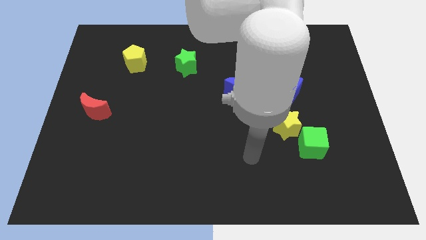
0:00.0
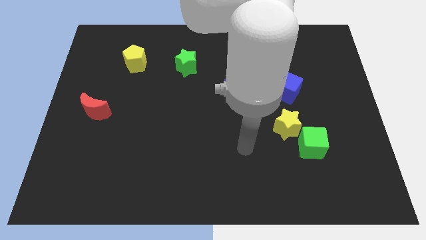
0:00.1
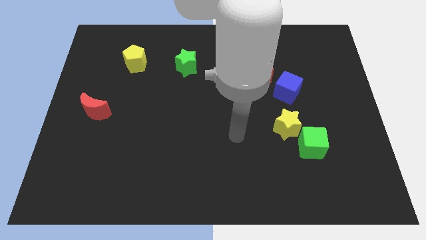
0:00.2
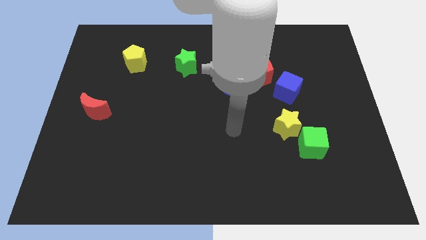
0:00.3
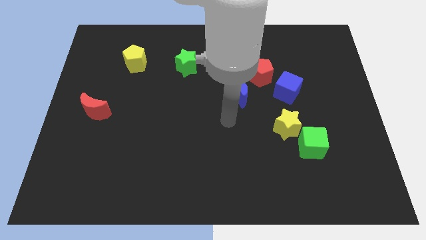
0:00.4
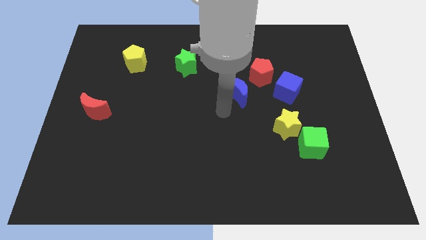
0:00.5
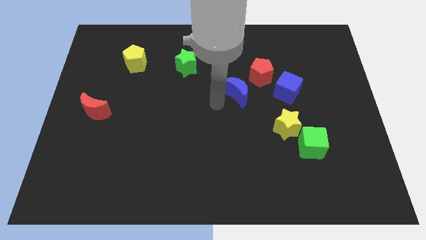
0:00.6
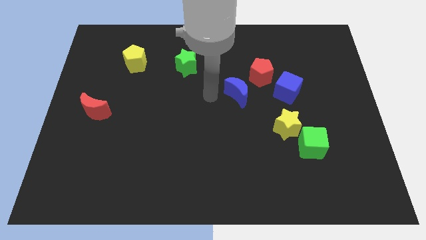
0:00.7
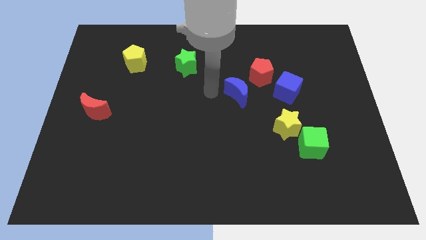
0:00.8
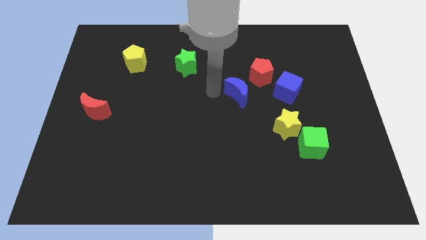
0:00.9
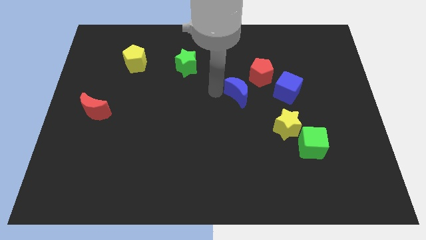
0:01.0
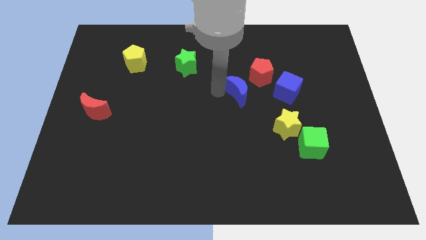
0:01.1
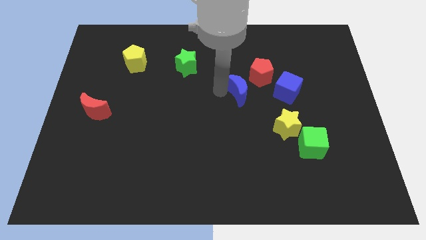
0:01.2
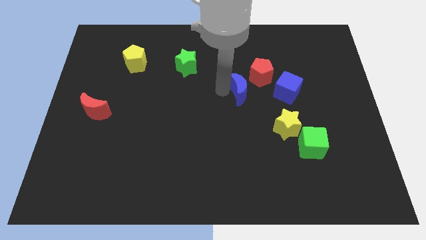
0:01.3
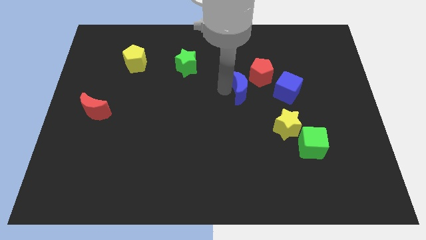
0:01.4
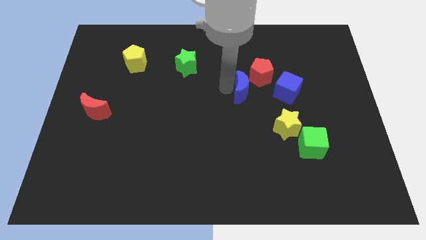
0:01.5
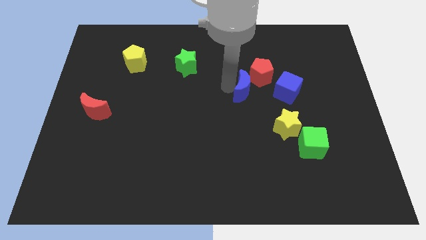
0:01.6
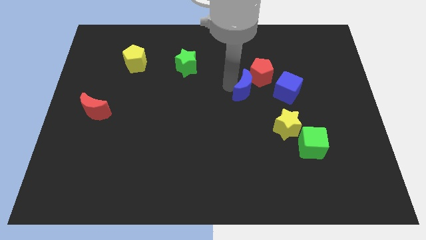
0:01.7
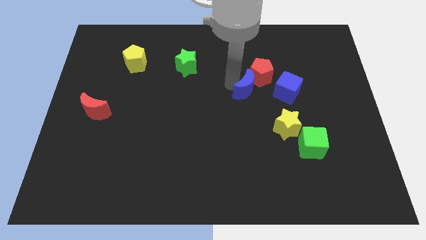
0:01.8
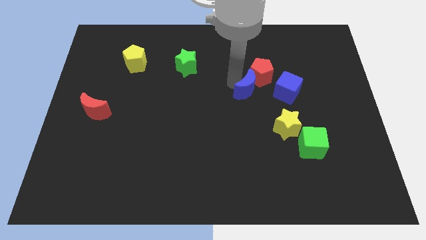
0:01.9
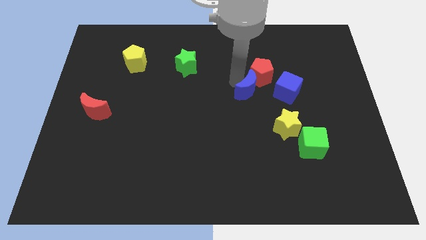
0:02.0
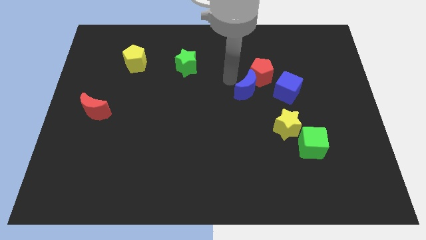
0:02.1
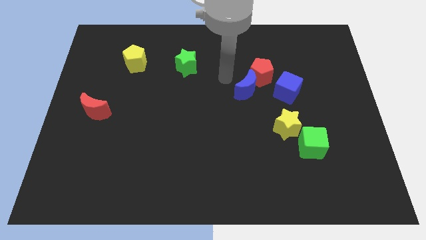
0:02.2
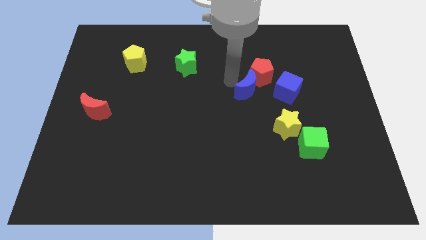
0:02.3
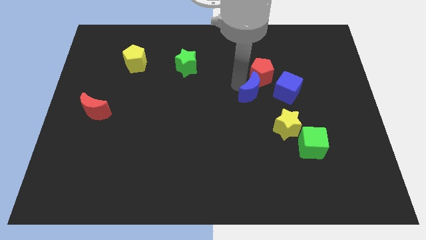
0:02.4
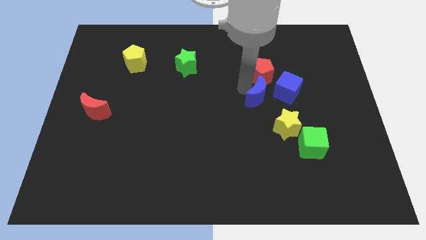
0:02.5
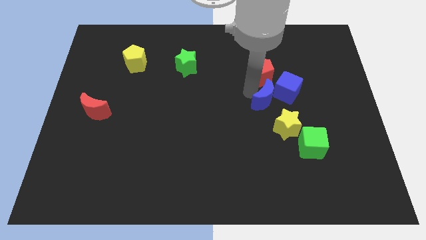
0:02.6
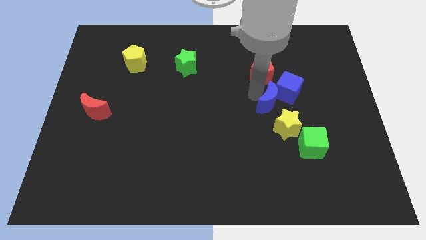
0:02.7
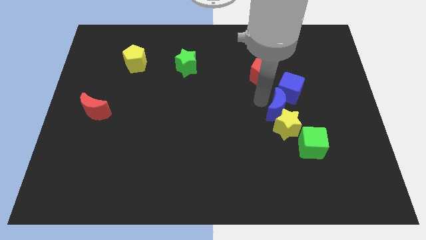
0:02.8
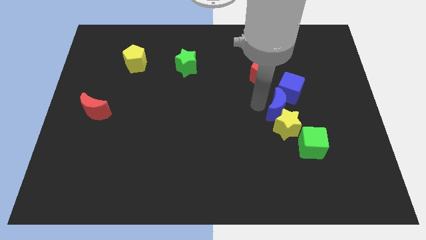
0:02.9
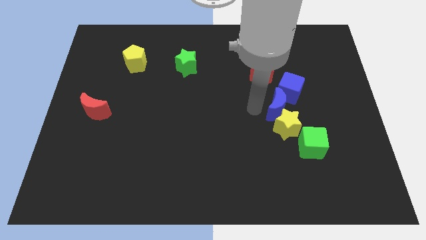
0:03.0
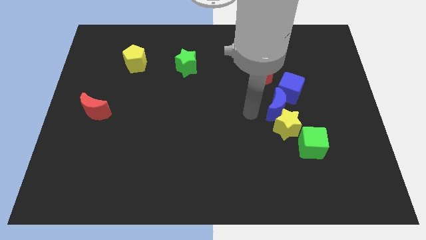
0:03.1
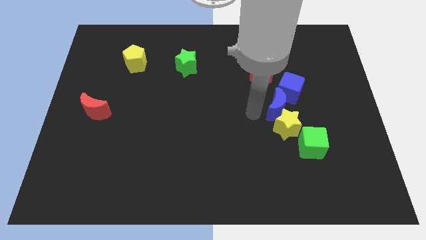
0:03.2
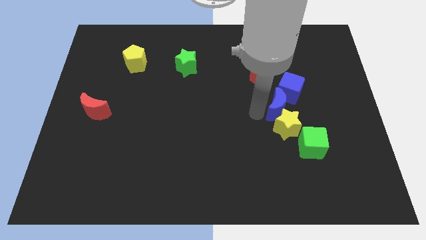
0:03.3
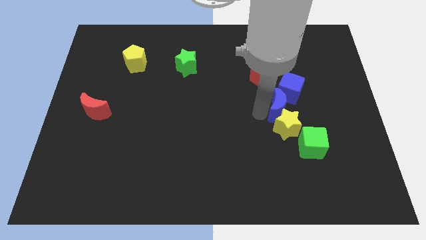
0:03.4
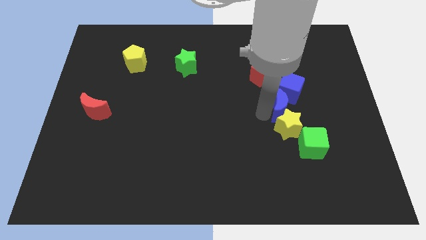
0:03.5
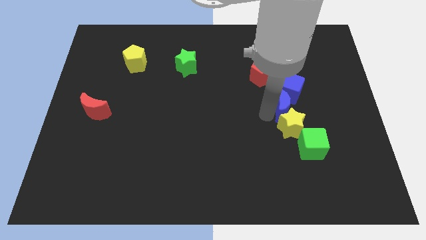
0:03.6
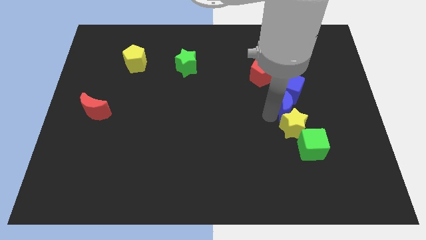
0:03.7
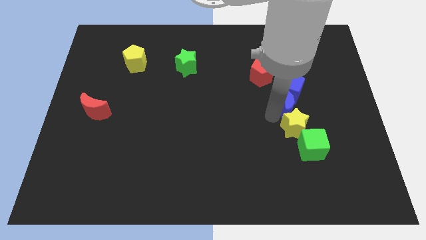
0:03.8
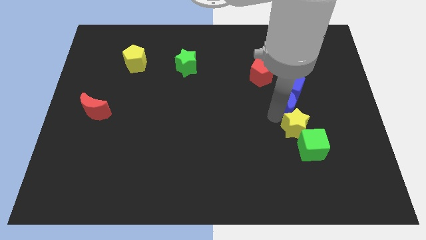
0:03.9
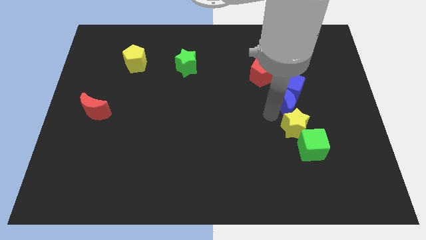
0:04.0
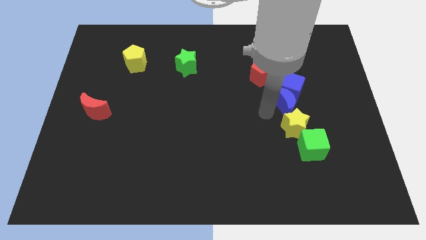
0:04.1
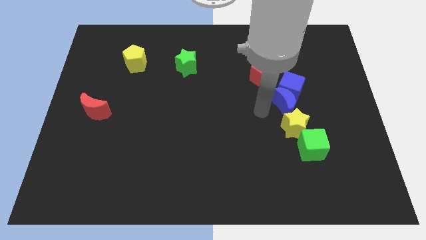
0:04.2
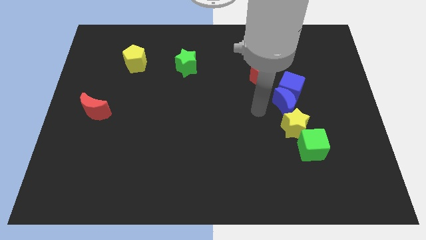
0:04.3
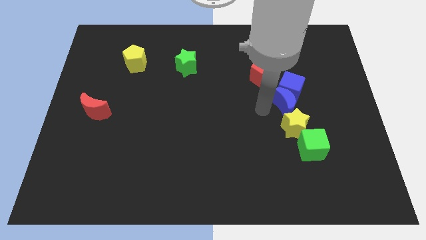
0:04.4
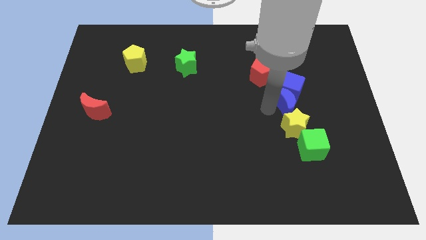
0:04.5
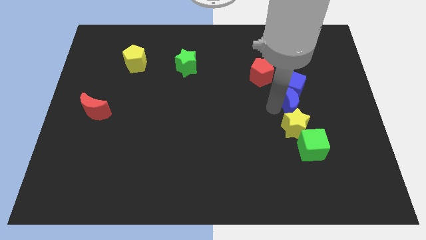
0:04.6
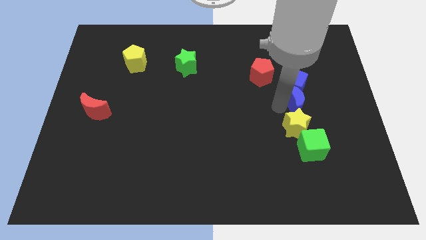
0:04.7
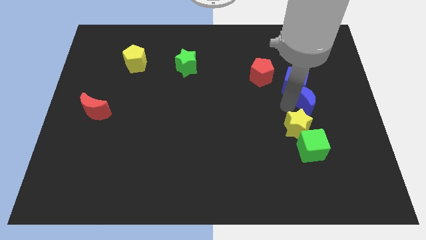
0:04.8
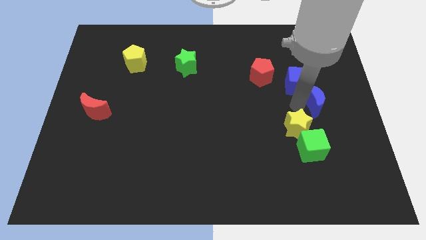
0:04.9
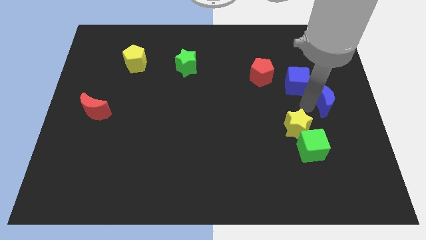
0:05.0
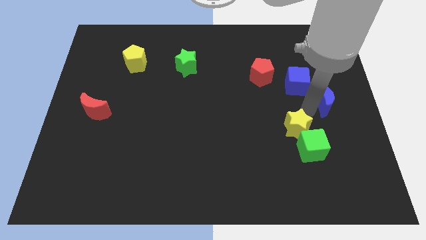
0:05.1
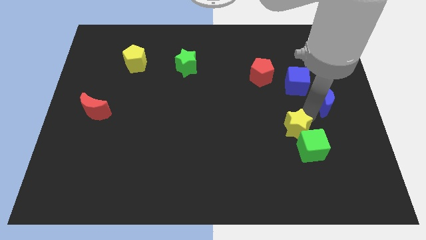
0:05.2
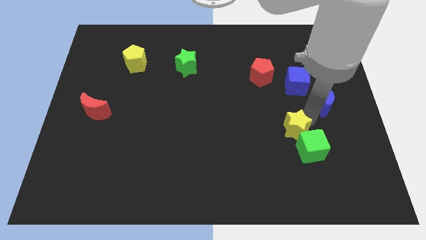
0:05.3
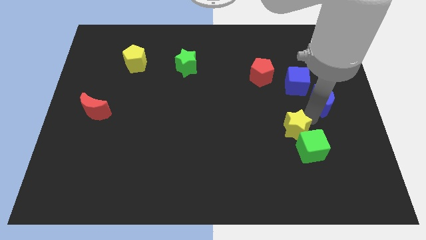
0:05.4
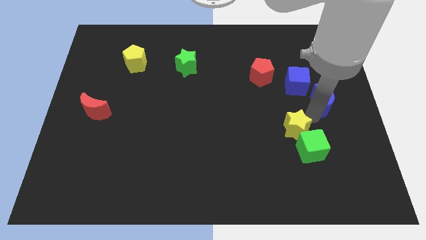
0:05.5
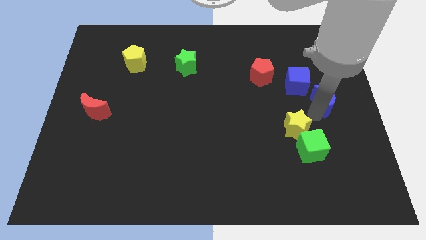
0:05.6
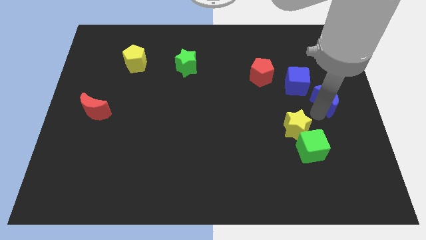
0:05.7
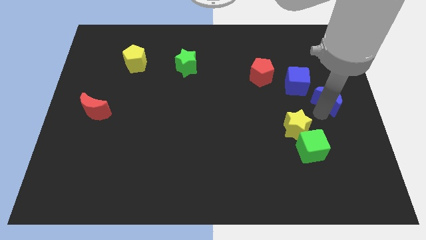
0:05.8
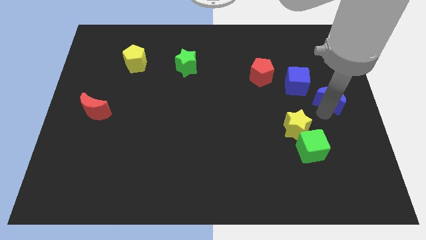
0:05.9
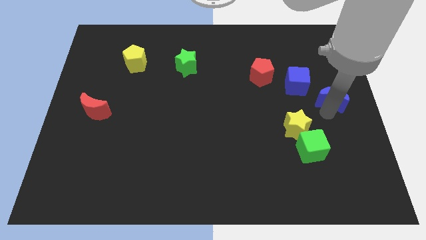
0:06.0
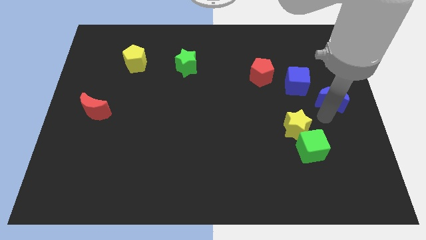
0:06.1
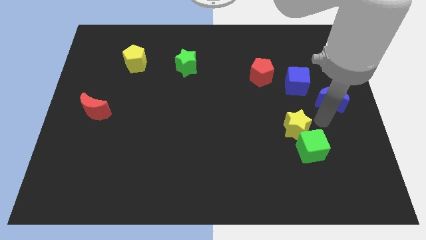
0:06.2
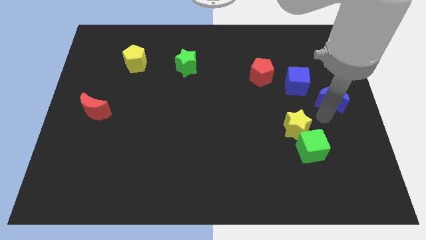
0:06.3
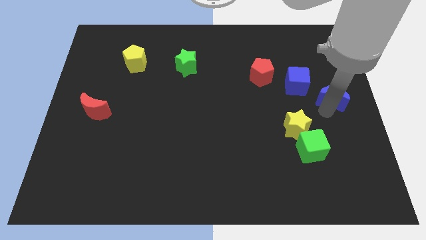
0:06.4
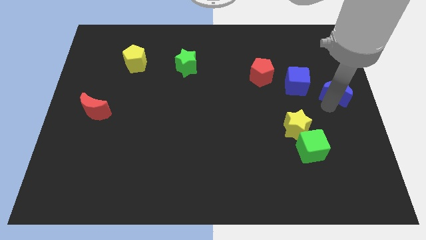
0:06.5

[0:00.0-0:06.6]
slide the blue moon right of the blue cube

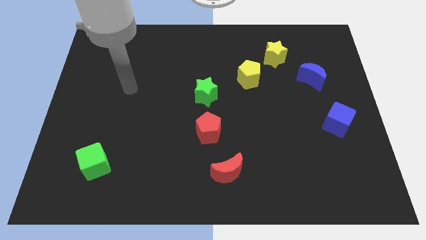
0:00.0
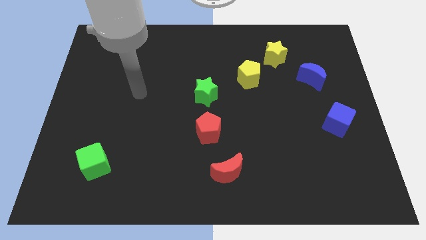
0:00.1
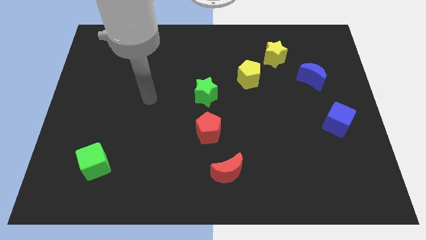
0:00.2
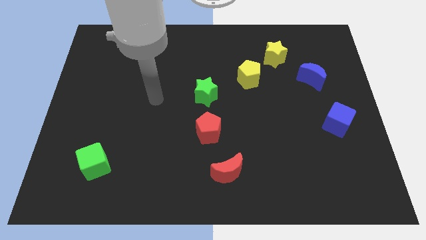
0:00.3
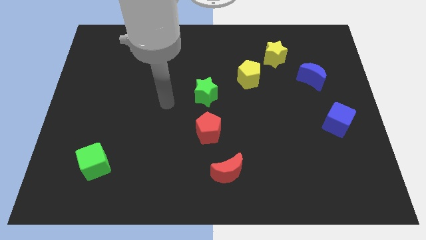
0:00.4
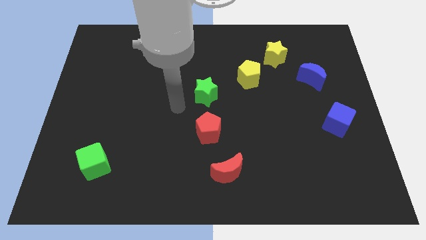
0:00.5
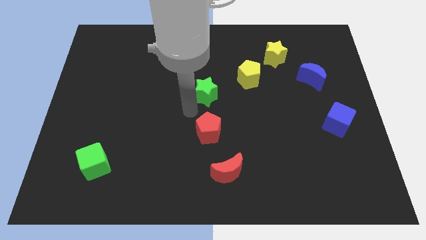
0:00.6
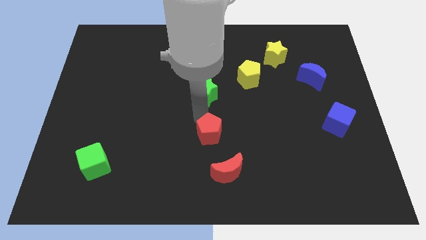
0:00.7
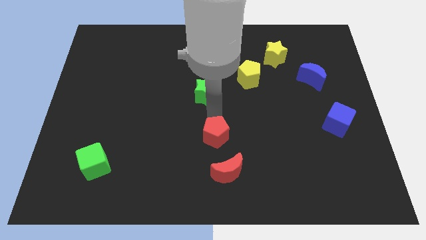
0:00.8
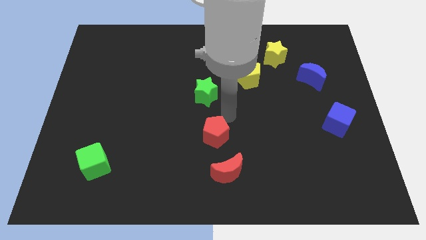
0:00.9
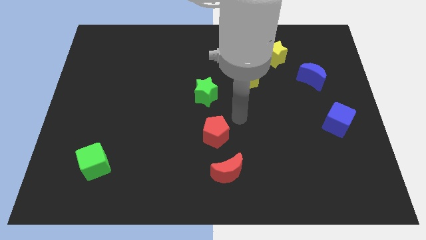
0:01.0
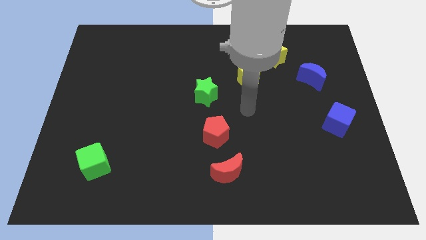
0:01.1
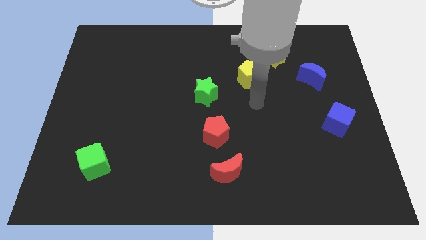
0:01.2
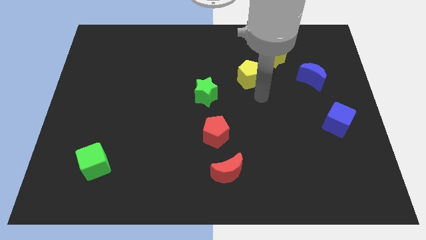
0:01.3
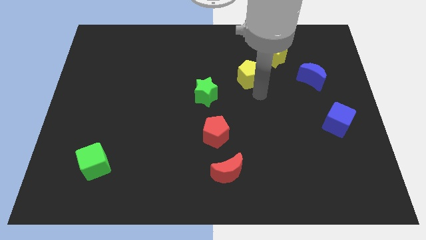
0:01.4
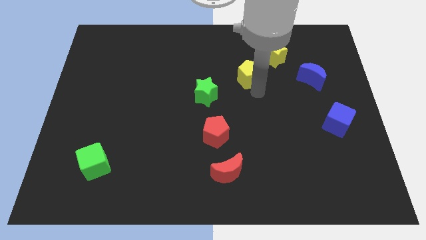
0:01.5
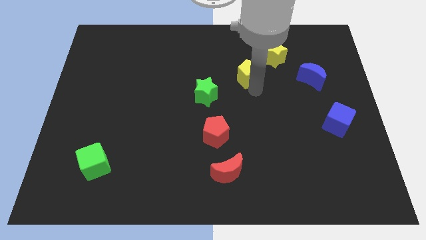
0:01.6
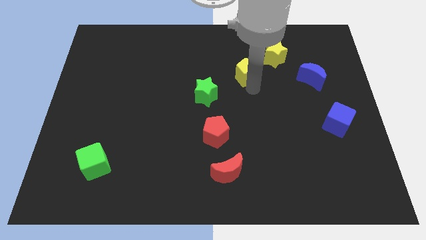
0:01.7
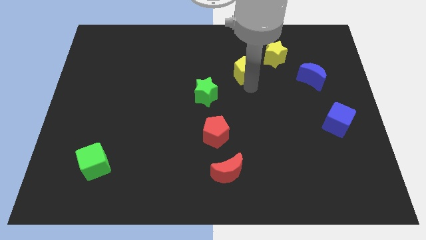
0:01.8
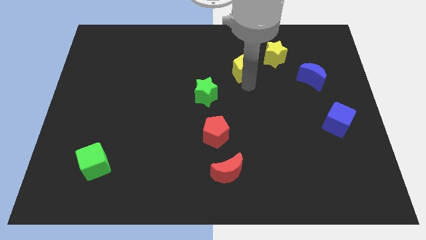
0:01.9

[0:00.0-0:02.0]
move the yellow pentagon to the left side of the yellow star
